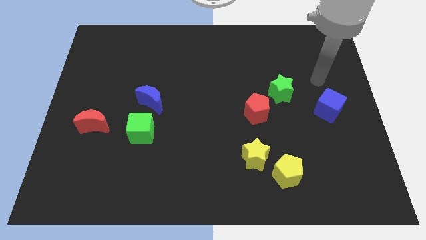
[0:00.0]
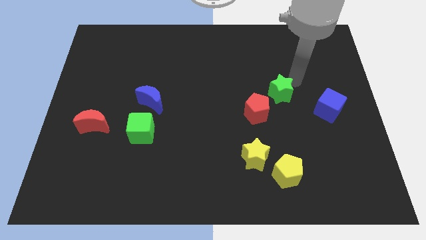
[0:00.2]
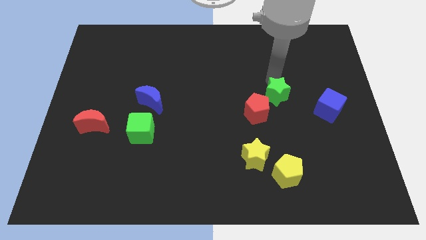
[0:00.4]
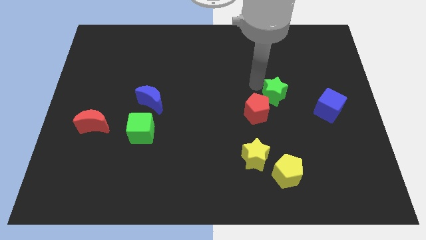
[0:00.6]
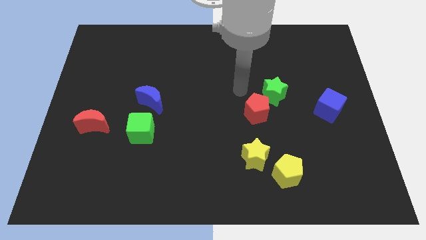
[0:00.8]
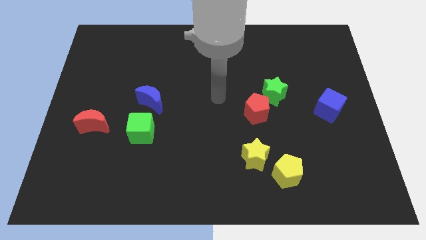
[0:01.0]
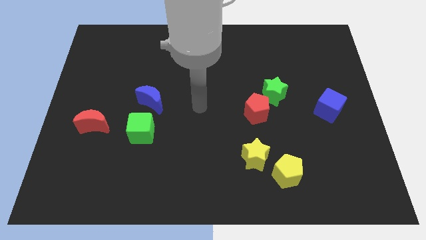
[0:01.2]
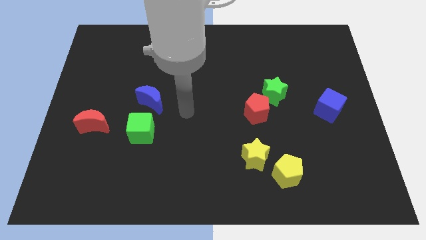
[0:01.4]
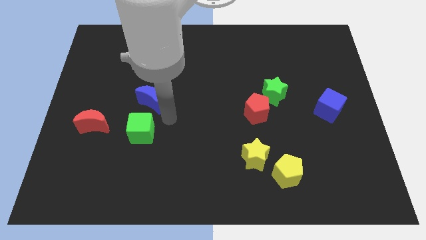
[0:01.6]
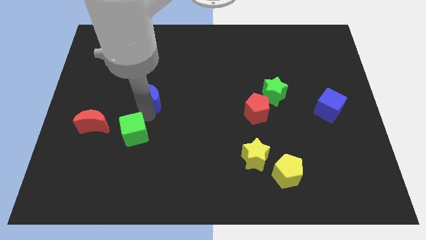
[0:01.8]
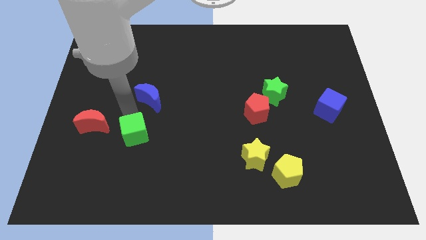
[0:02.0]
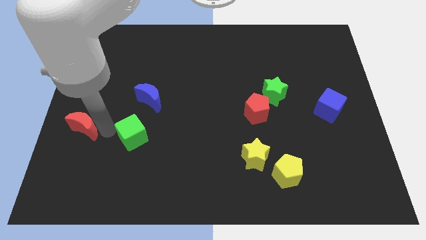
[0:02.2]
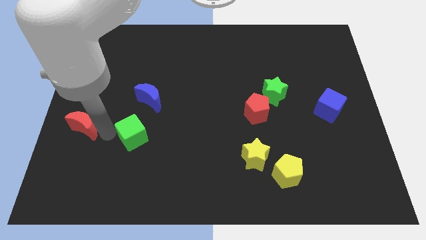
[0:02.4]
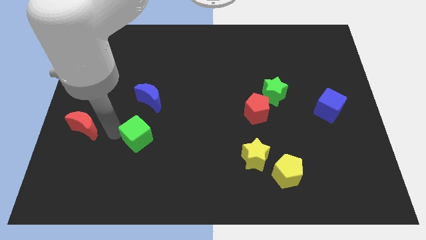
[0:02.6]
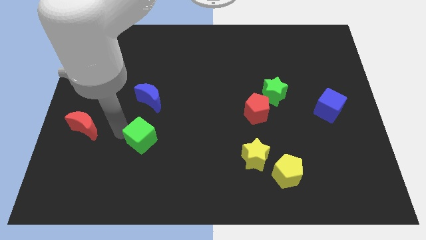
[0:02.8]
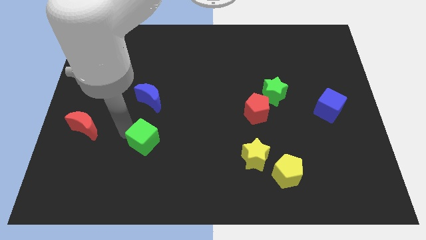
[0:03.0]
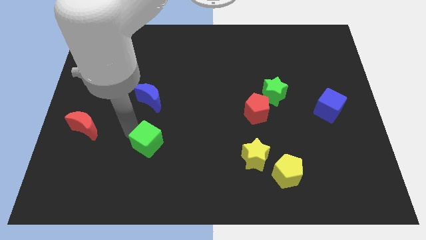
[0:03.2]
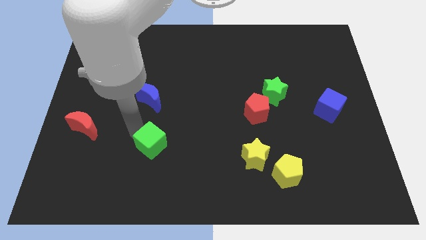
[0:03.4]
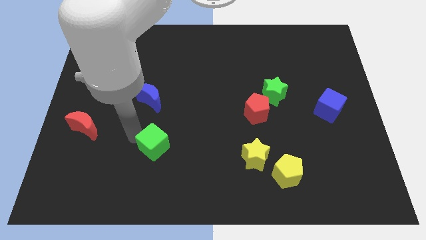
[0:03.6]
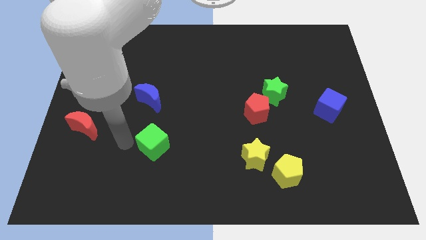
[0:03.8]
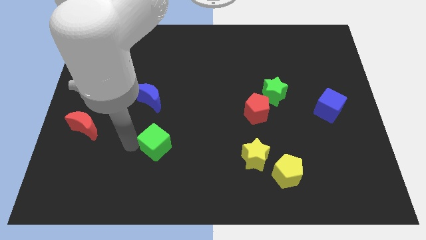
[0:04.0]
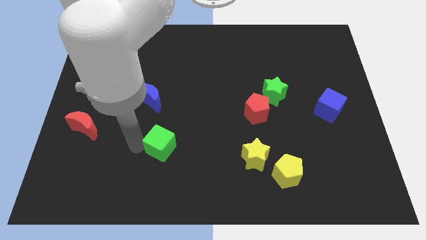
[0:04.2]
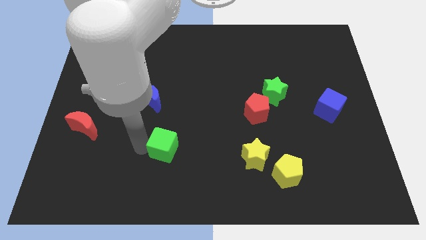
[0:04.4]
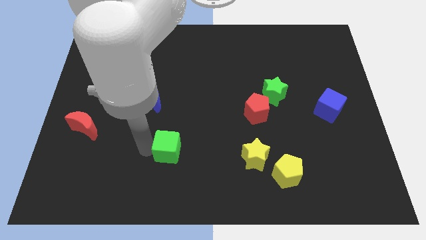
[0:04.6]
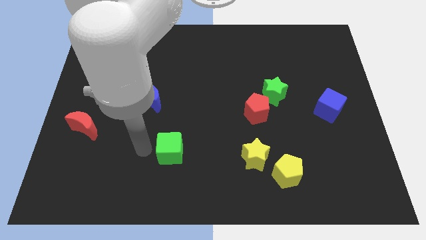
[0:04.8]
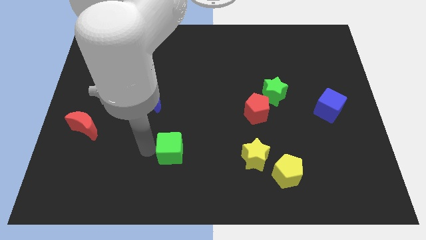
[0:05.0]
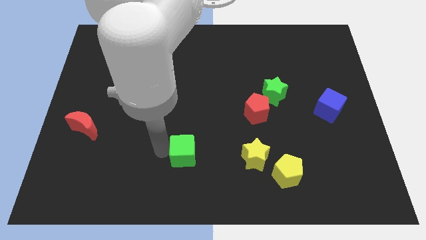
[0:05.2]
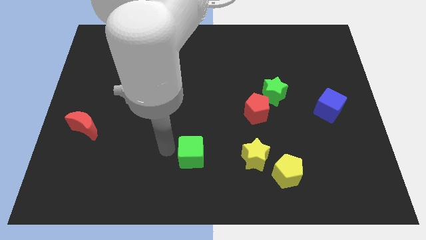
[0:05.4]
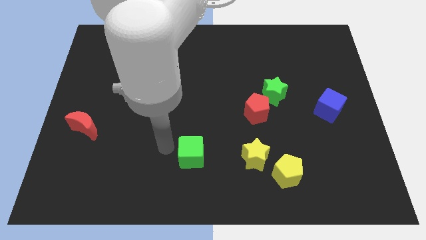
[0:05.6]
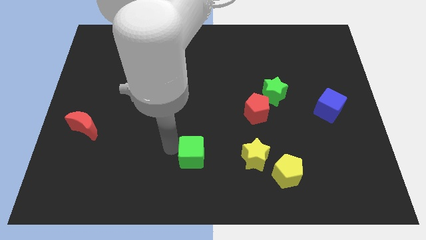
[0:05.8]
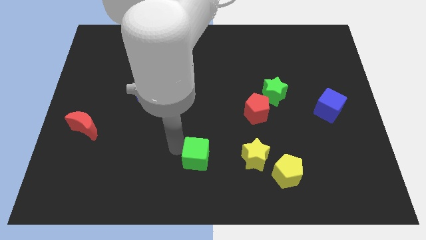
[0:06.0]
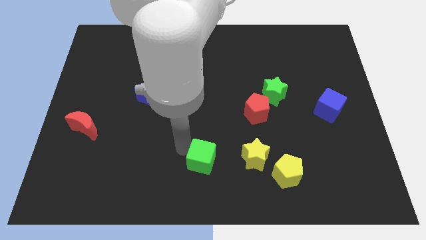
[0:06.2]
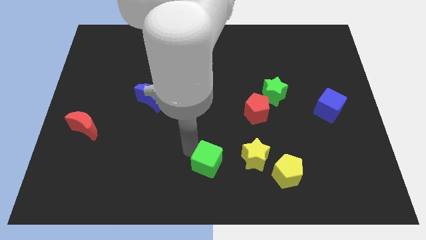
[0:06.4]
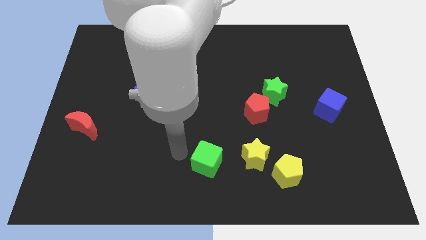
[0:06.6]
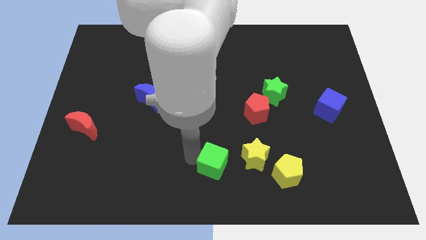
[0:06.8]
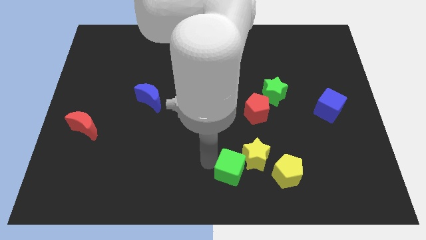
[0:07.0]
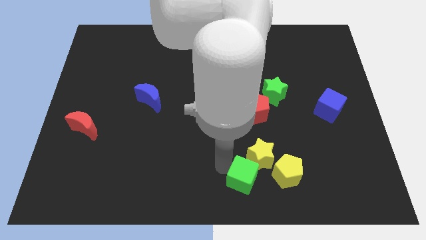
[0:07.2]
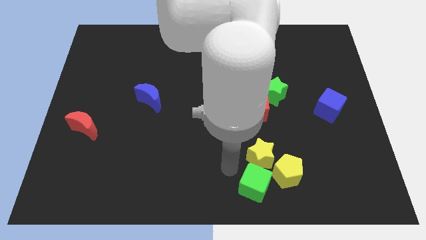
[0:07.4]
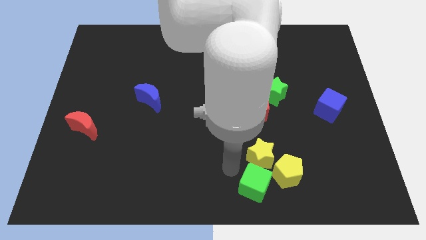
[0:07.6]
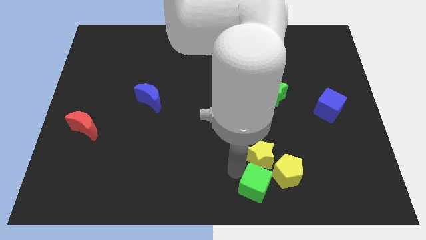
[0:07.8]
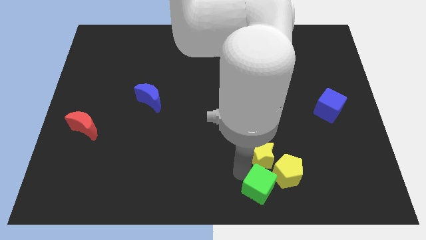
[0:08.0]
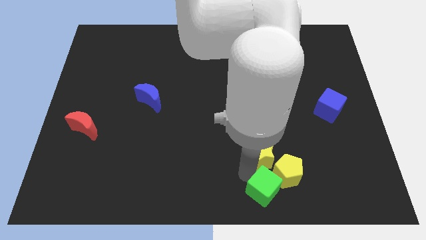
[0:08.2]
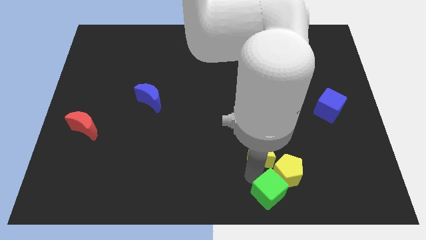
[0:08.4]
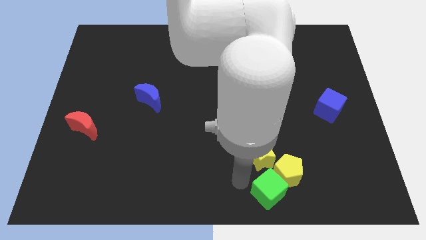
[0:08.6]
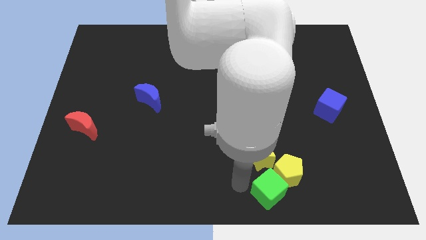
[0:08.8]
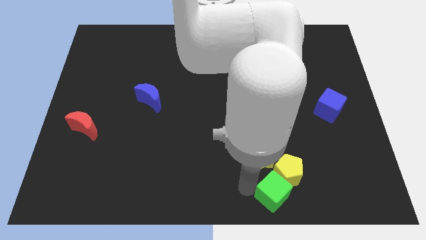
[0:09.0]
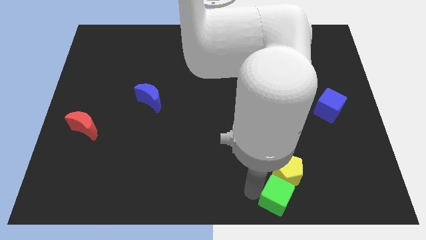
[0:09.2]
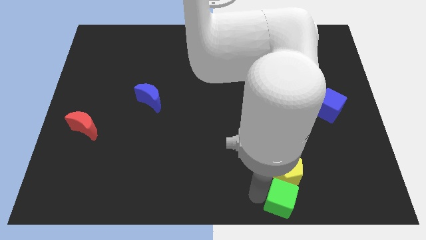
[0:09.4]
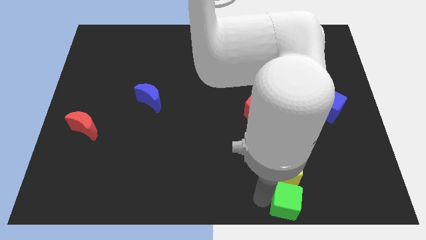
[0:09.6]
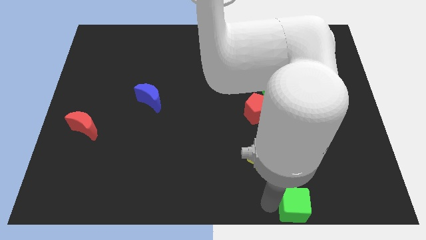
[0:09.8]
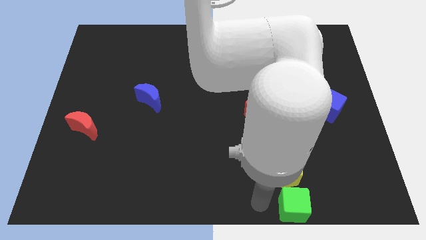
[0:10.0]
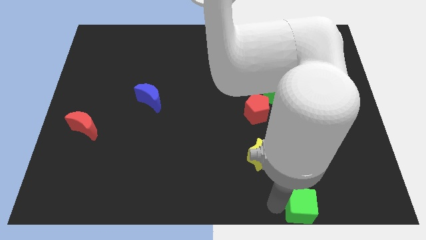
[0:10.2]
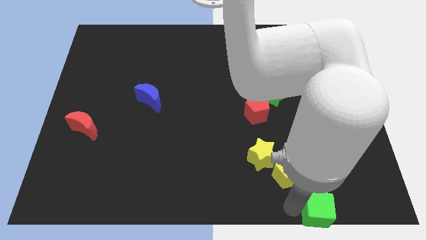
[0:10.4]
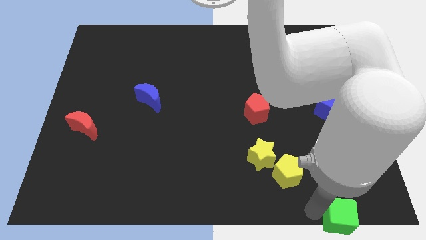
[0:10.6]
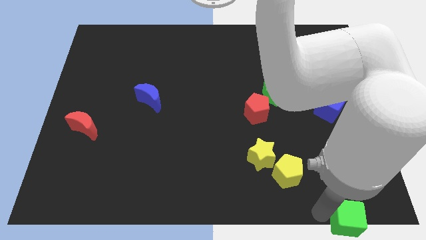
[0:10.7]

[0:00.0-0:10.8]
put the green cube to the bottom right

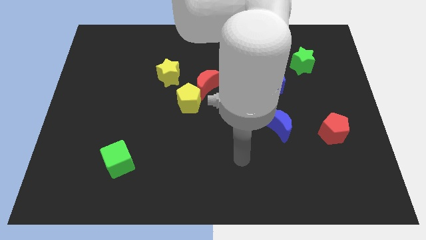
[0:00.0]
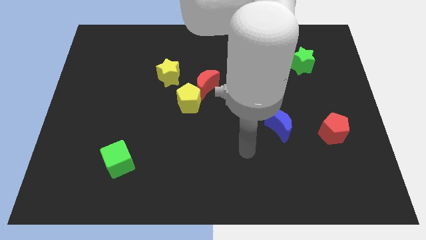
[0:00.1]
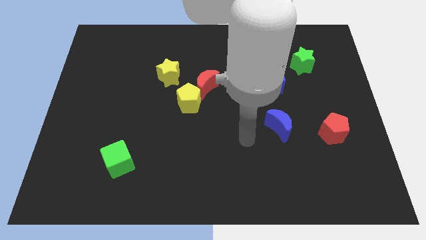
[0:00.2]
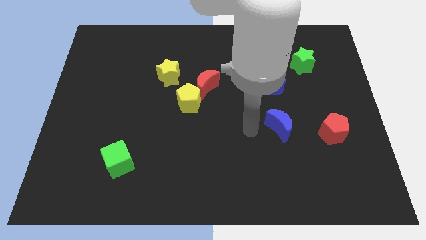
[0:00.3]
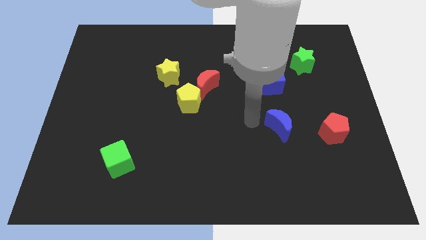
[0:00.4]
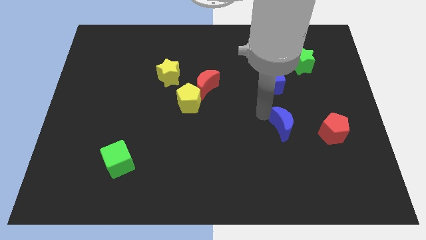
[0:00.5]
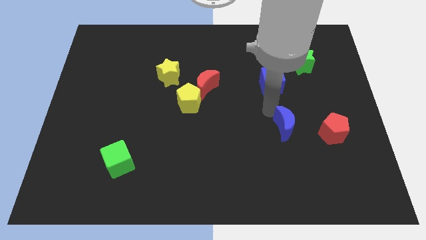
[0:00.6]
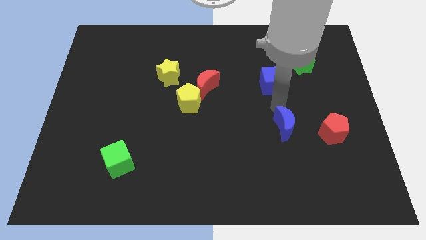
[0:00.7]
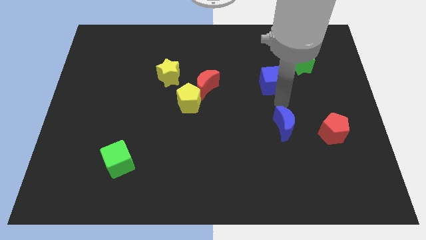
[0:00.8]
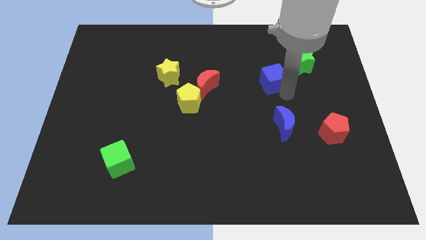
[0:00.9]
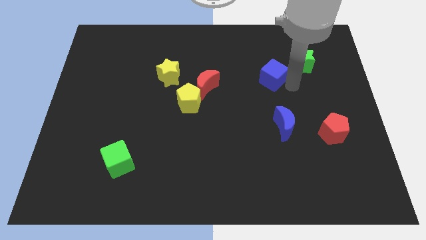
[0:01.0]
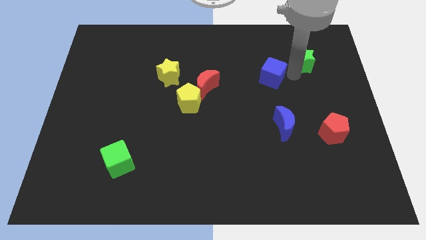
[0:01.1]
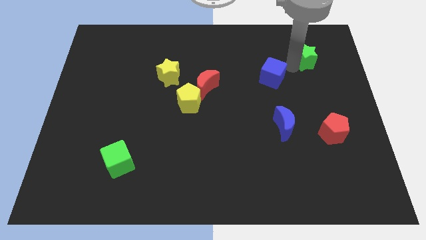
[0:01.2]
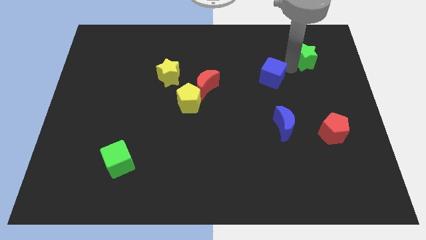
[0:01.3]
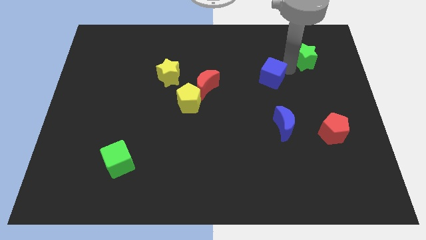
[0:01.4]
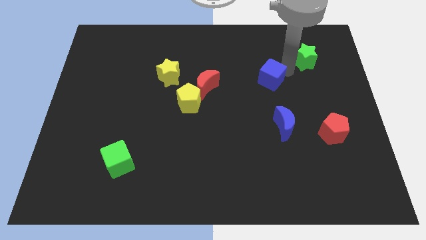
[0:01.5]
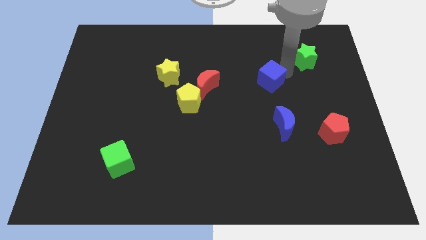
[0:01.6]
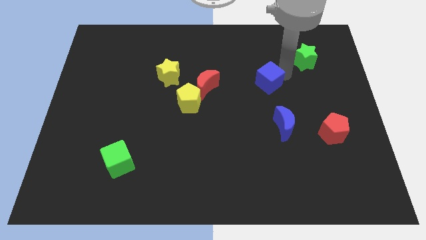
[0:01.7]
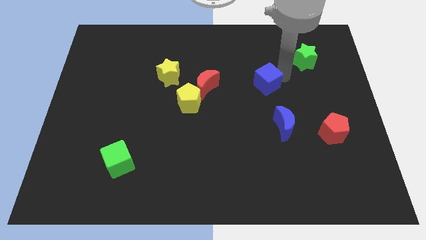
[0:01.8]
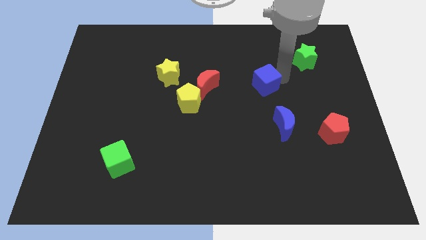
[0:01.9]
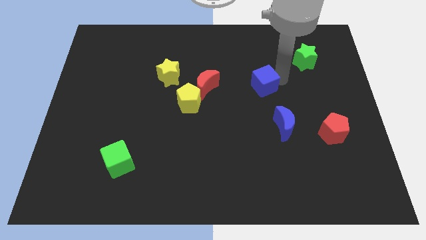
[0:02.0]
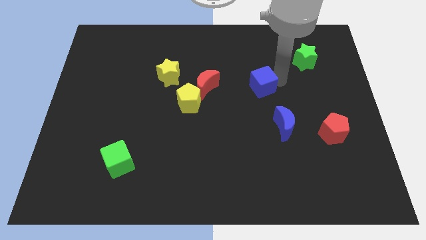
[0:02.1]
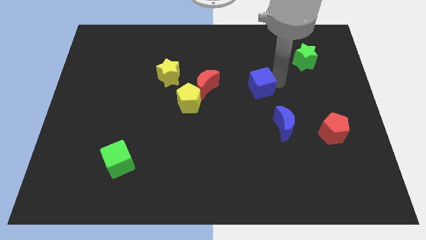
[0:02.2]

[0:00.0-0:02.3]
slide the blue cube to the middle
